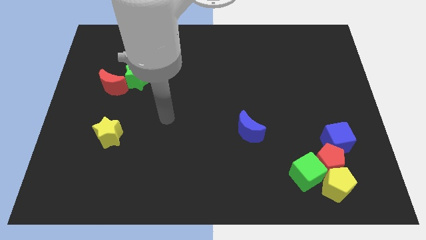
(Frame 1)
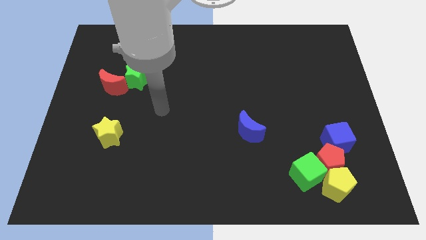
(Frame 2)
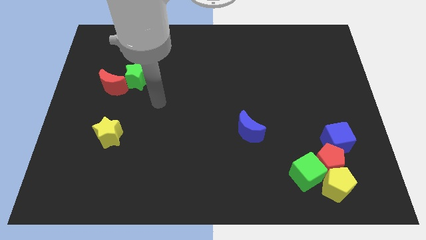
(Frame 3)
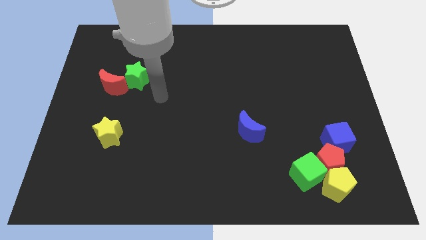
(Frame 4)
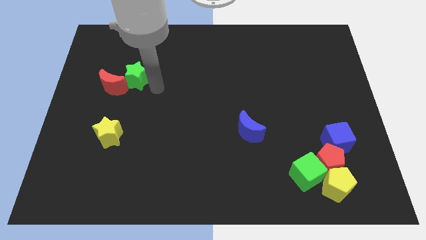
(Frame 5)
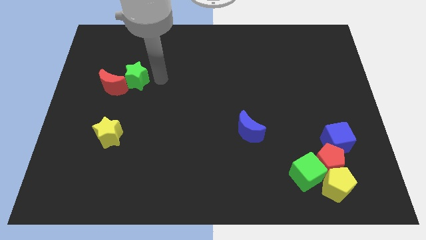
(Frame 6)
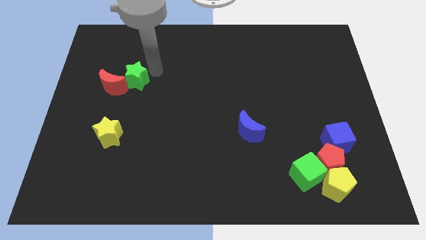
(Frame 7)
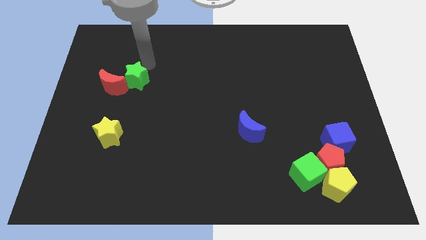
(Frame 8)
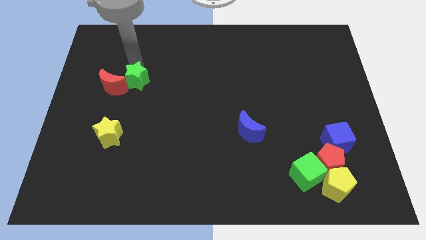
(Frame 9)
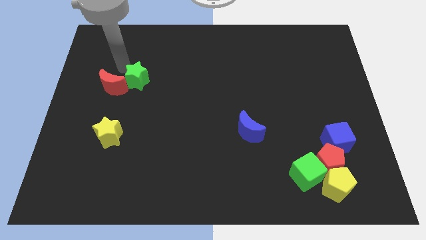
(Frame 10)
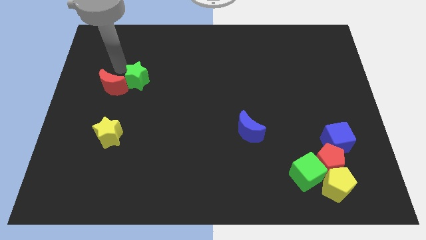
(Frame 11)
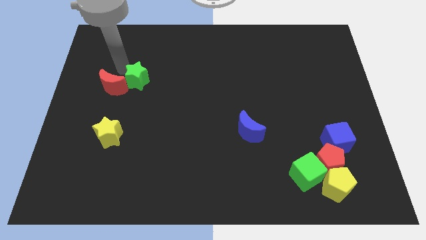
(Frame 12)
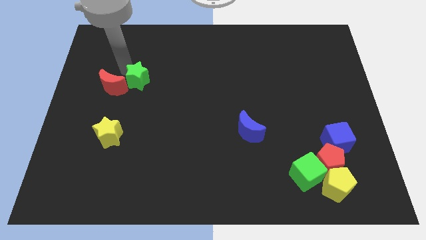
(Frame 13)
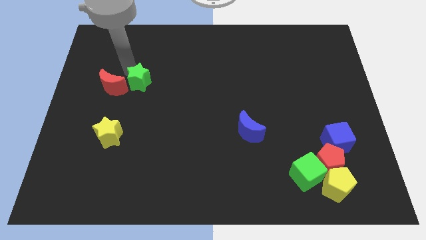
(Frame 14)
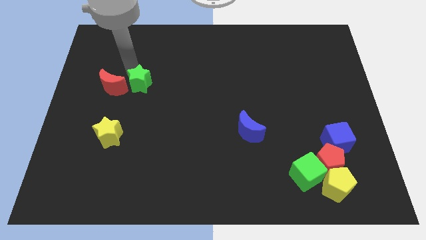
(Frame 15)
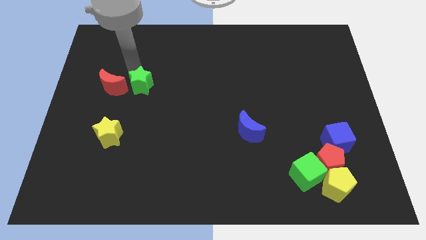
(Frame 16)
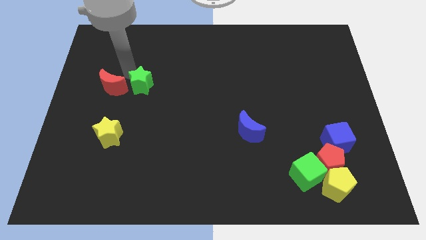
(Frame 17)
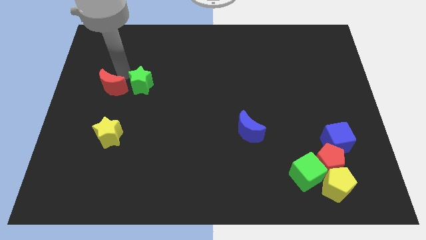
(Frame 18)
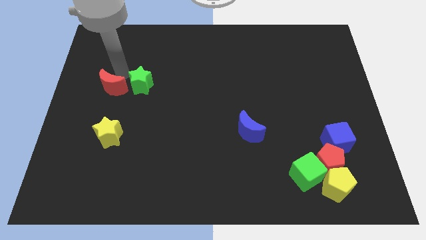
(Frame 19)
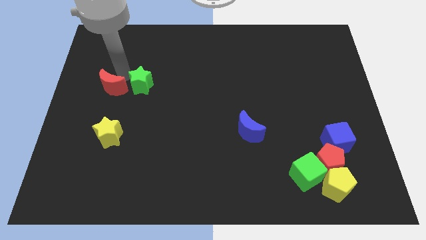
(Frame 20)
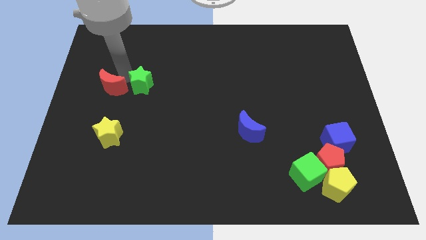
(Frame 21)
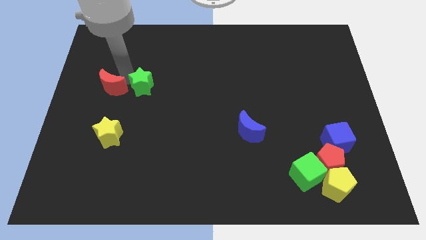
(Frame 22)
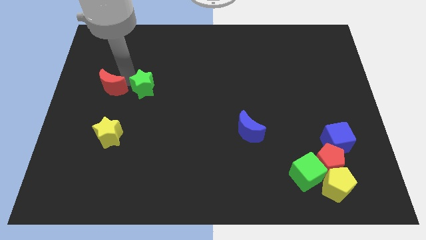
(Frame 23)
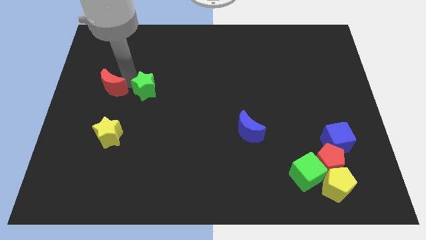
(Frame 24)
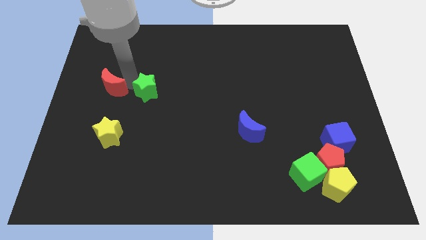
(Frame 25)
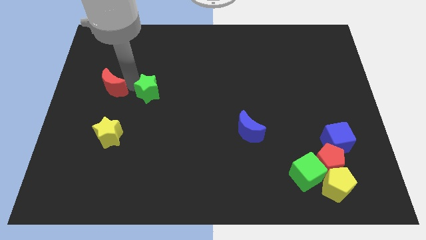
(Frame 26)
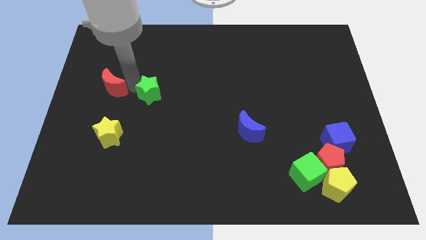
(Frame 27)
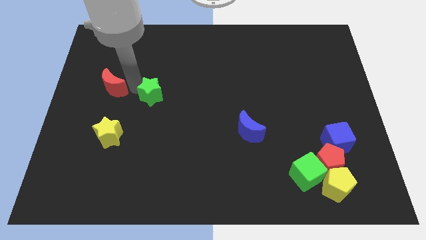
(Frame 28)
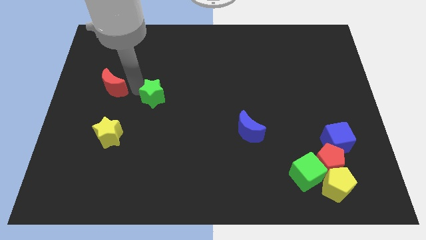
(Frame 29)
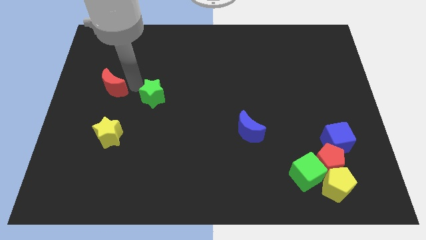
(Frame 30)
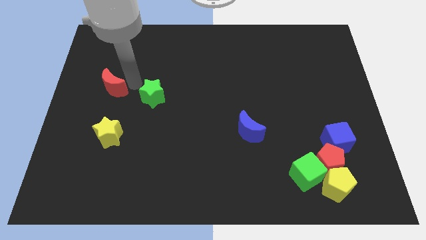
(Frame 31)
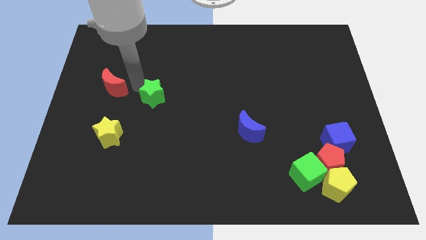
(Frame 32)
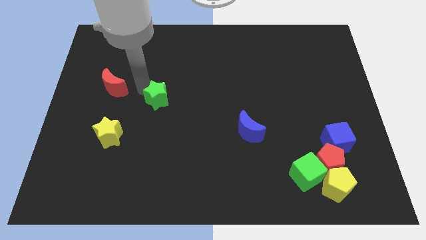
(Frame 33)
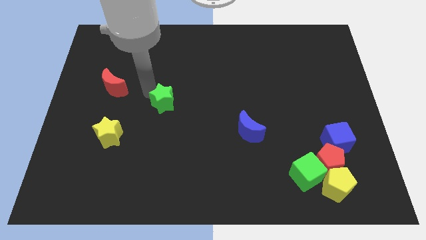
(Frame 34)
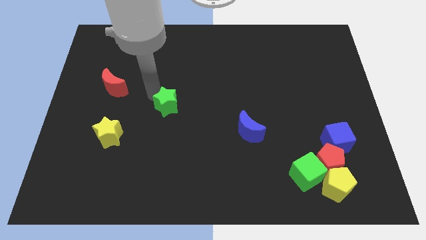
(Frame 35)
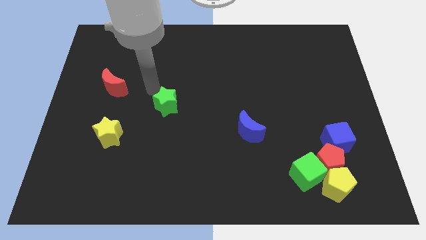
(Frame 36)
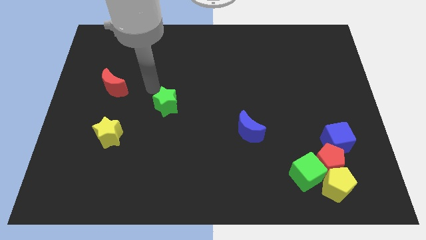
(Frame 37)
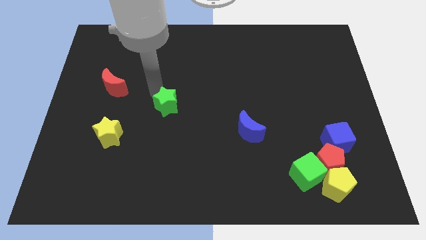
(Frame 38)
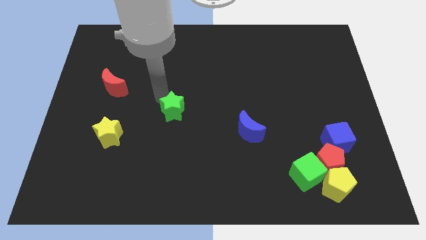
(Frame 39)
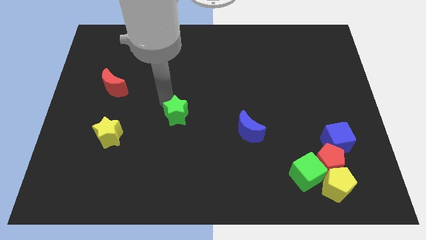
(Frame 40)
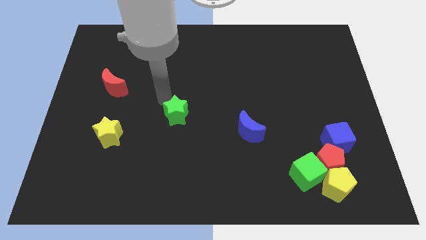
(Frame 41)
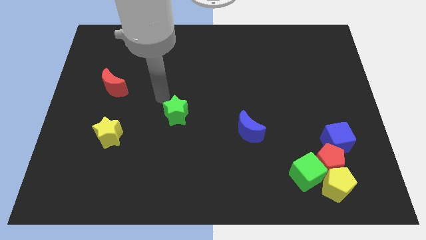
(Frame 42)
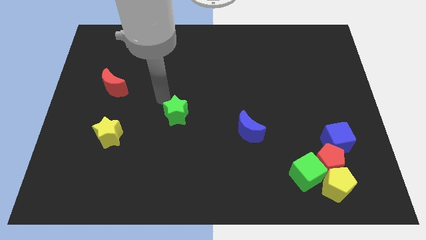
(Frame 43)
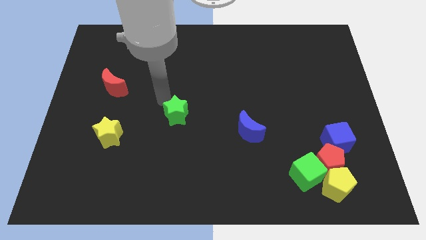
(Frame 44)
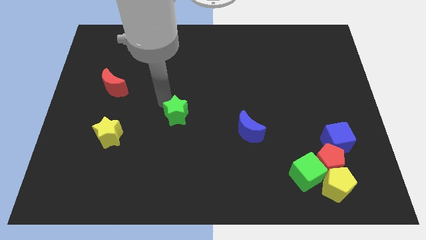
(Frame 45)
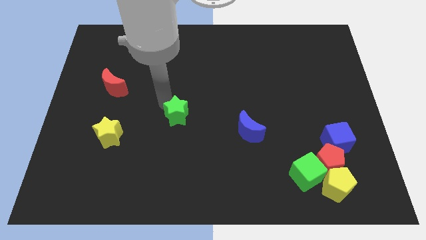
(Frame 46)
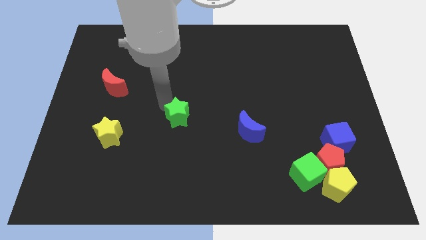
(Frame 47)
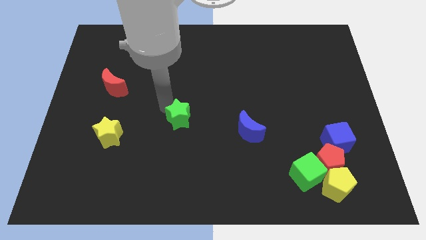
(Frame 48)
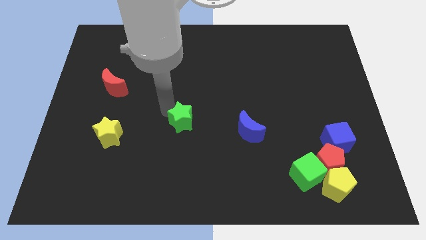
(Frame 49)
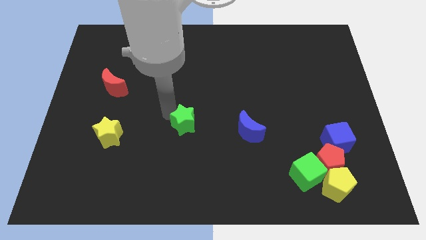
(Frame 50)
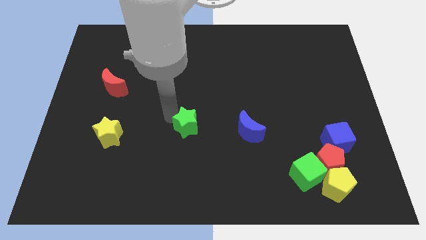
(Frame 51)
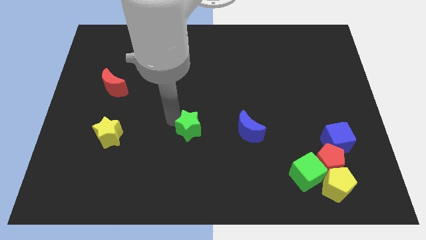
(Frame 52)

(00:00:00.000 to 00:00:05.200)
move the green star diagonally downwards and right

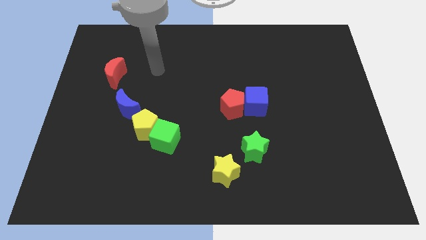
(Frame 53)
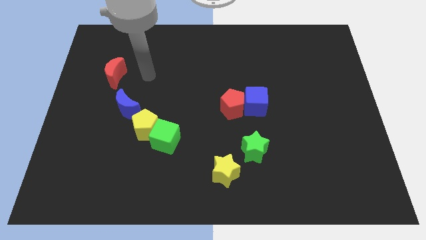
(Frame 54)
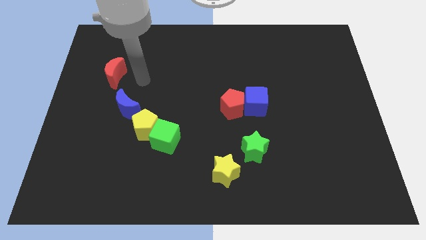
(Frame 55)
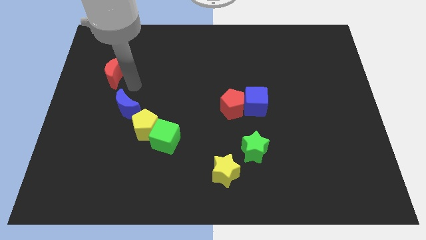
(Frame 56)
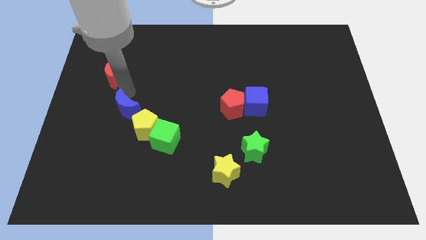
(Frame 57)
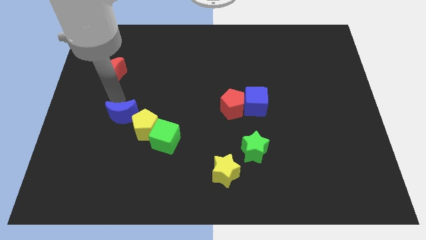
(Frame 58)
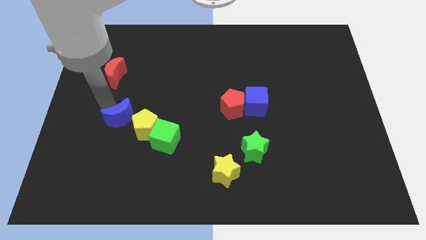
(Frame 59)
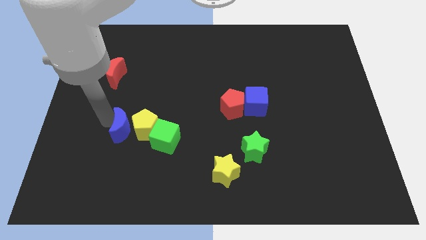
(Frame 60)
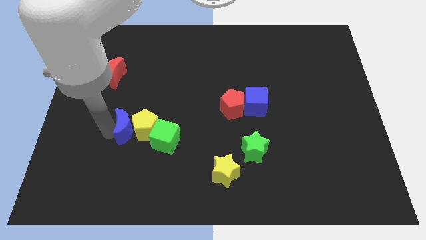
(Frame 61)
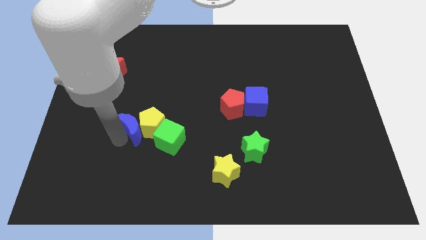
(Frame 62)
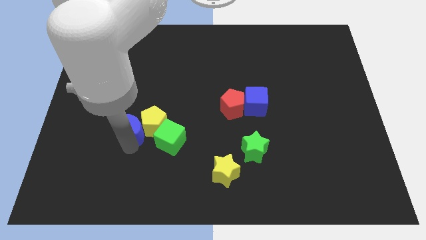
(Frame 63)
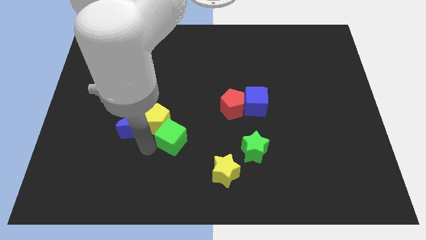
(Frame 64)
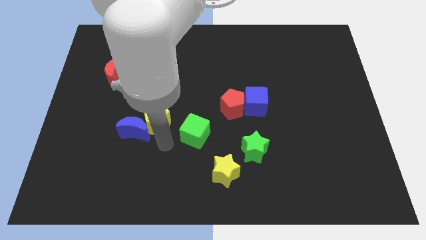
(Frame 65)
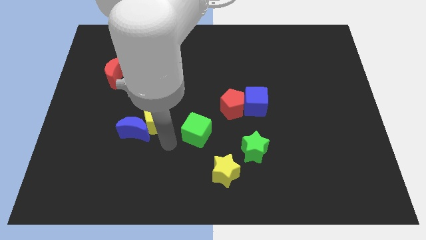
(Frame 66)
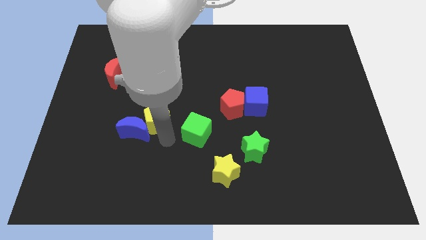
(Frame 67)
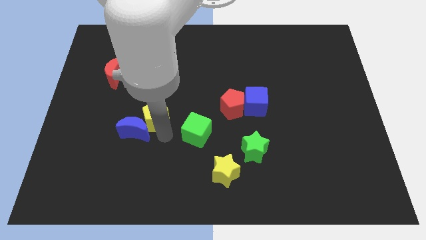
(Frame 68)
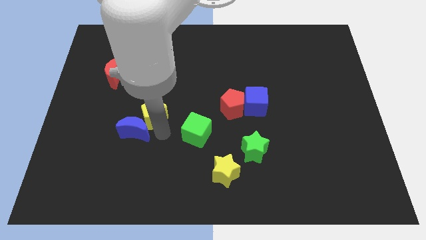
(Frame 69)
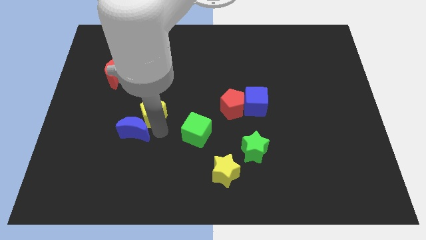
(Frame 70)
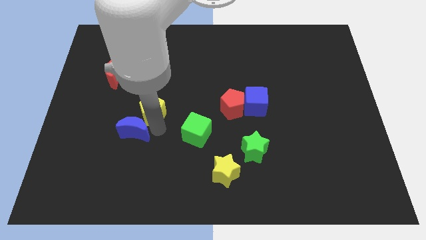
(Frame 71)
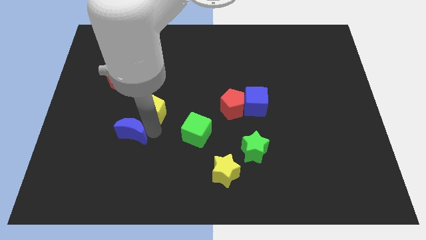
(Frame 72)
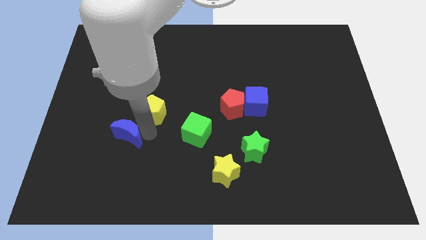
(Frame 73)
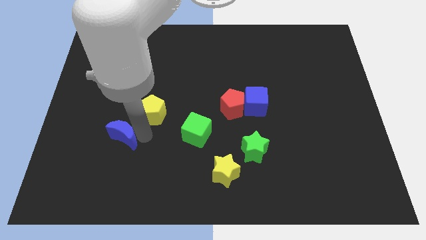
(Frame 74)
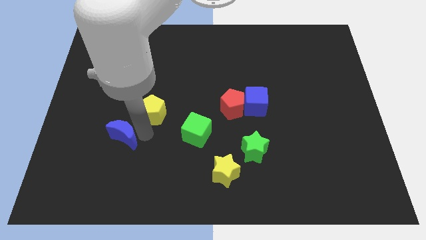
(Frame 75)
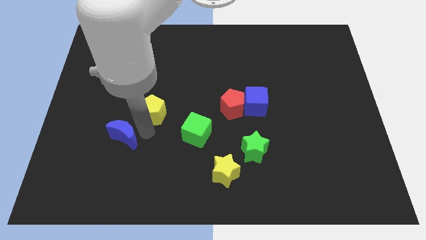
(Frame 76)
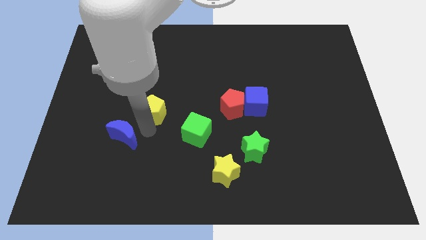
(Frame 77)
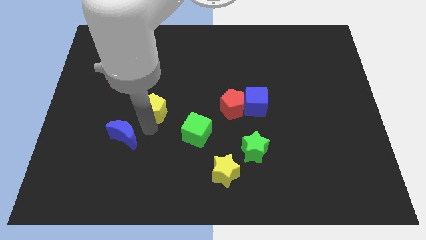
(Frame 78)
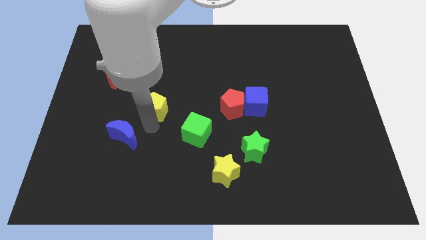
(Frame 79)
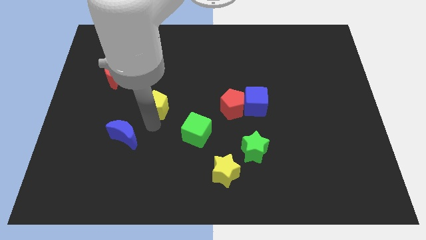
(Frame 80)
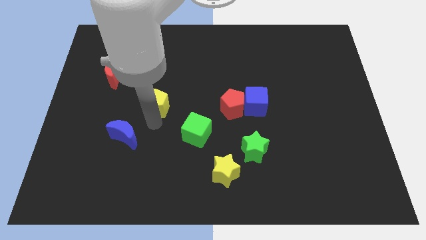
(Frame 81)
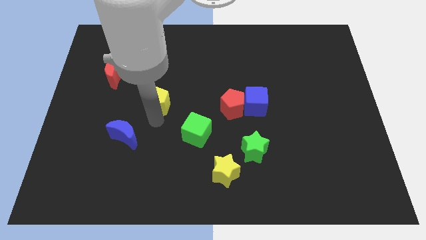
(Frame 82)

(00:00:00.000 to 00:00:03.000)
slightly push the yellow pentagon upwards
